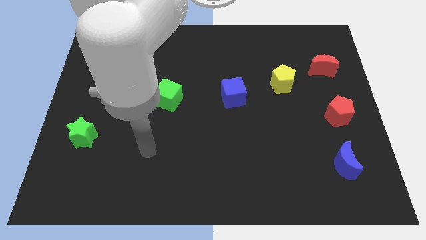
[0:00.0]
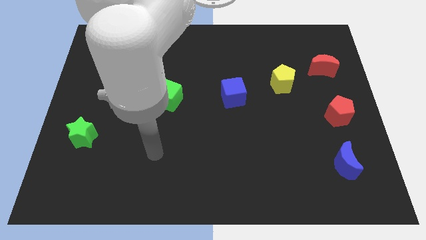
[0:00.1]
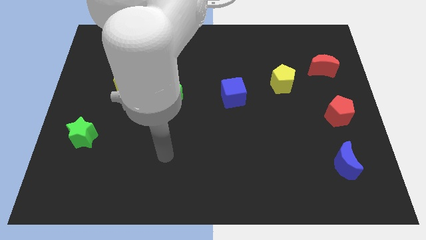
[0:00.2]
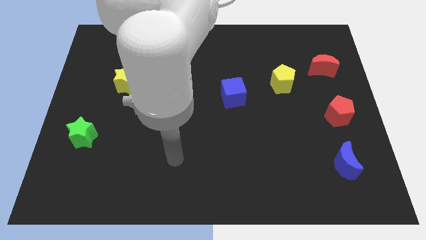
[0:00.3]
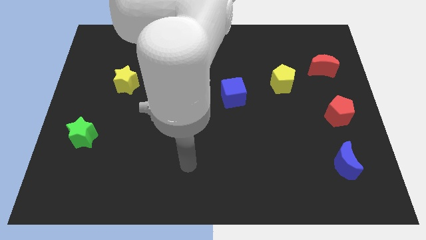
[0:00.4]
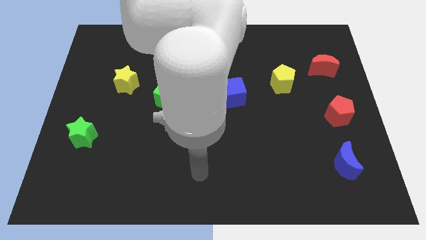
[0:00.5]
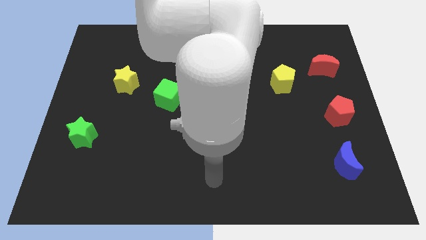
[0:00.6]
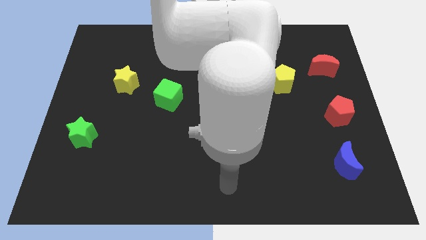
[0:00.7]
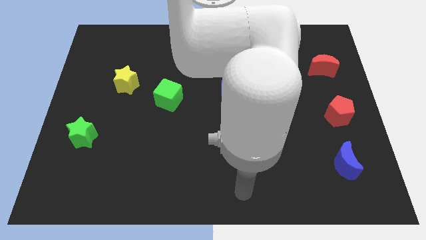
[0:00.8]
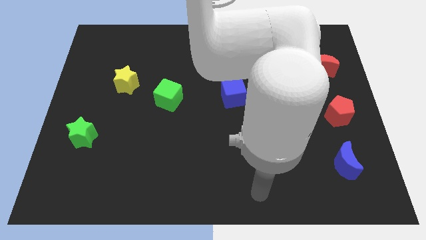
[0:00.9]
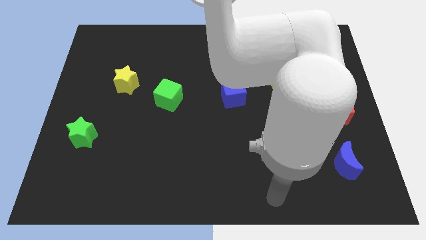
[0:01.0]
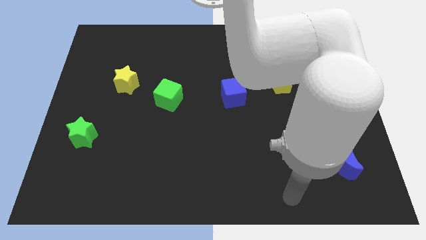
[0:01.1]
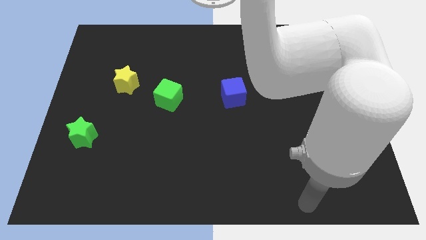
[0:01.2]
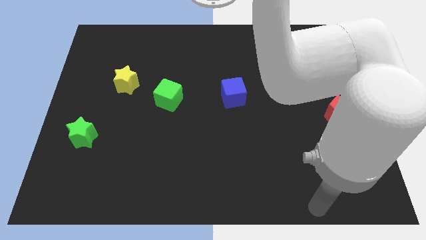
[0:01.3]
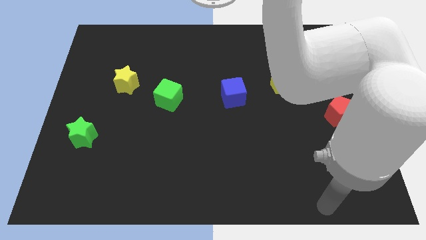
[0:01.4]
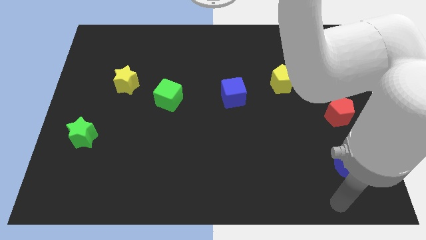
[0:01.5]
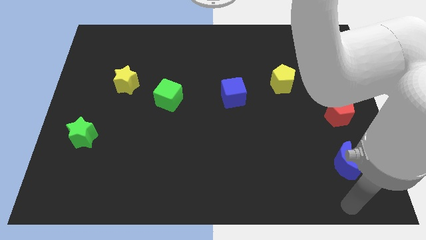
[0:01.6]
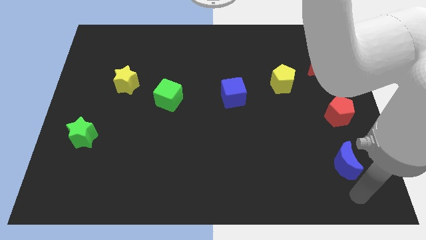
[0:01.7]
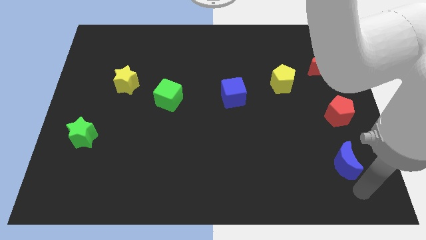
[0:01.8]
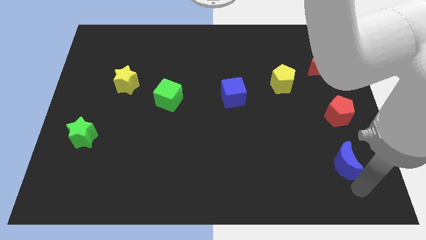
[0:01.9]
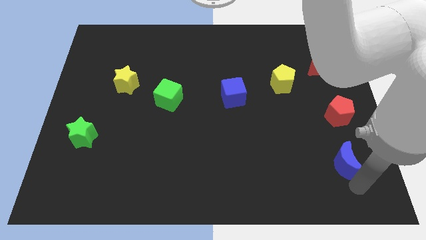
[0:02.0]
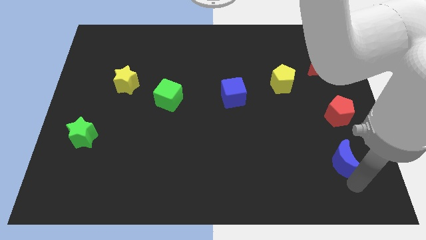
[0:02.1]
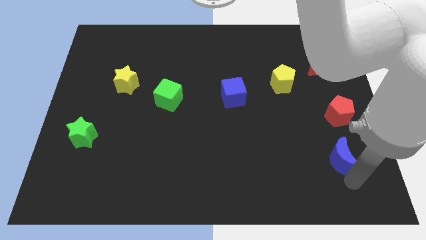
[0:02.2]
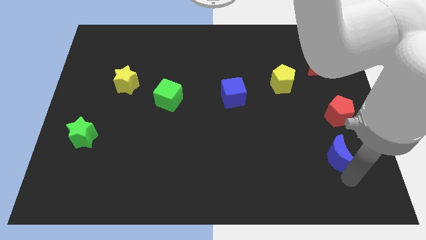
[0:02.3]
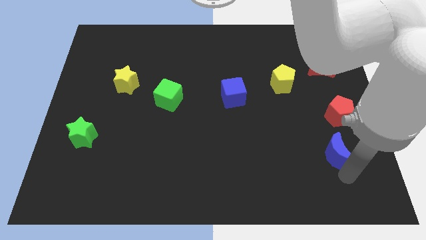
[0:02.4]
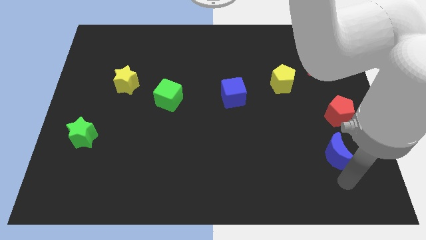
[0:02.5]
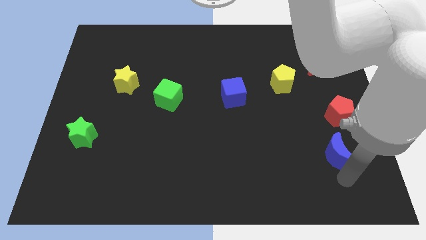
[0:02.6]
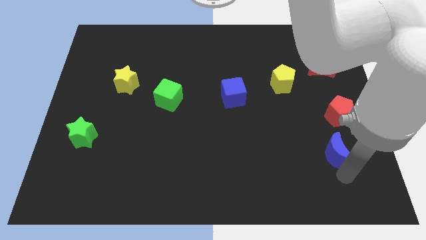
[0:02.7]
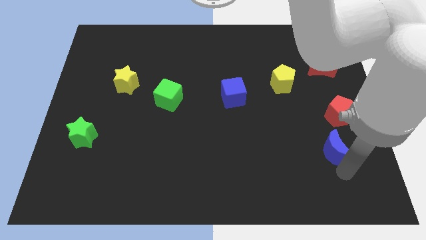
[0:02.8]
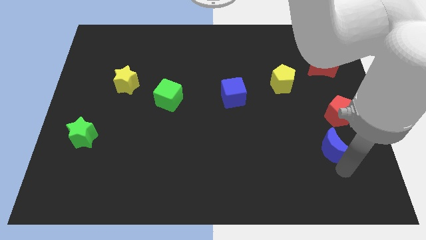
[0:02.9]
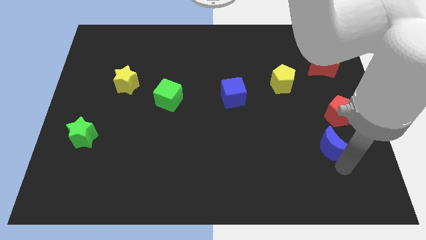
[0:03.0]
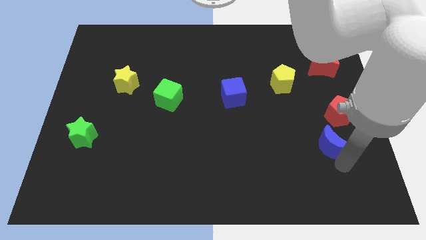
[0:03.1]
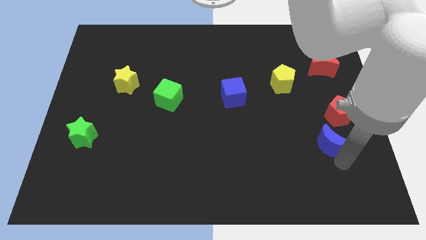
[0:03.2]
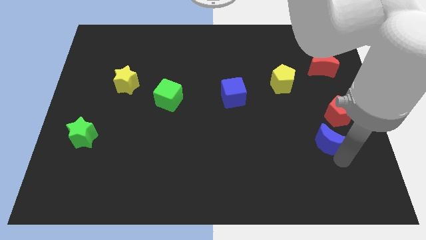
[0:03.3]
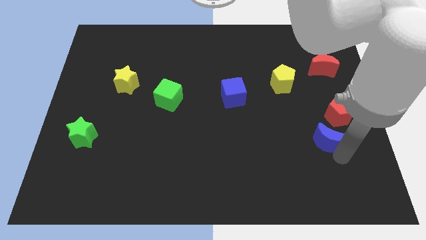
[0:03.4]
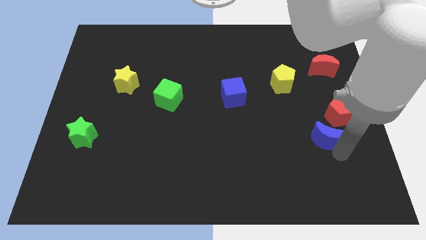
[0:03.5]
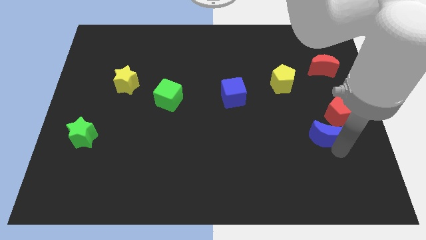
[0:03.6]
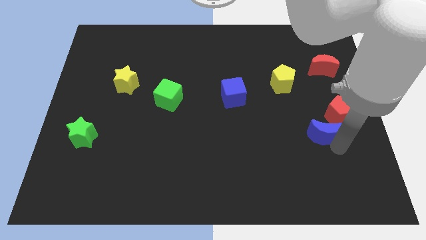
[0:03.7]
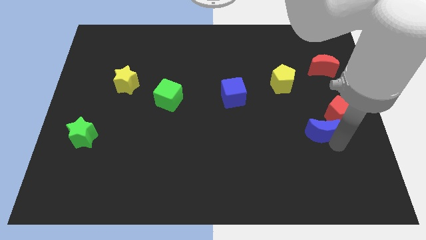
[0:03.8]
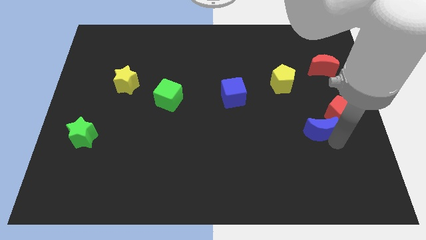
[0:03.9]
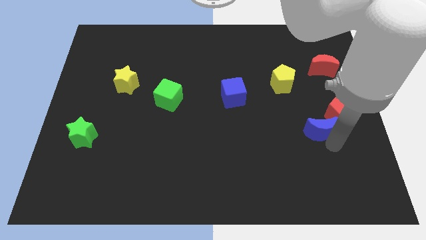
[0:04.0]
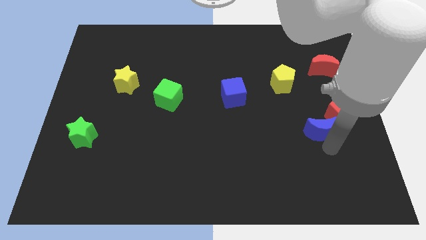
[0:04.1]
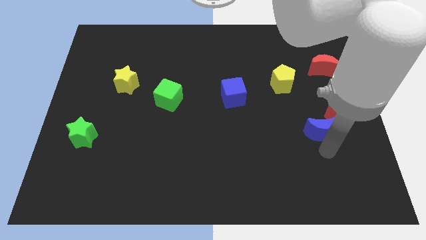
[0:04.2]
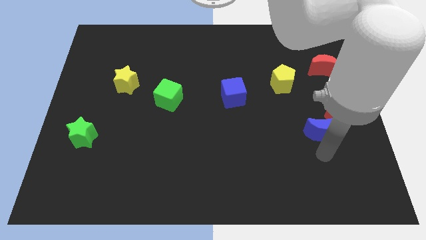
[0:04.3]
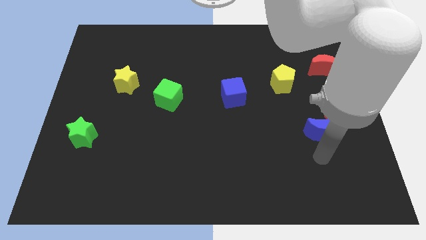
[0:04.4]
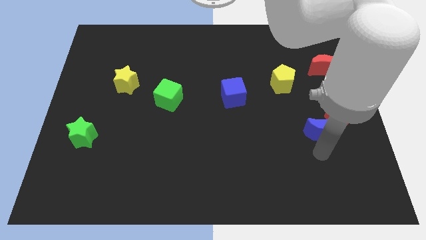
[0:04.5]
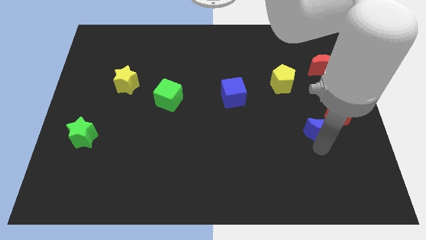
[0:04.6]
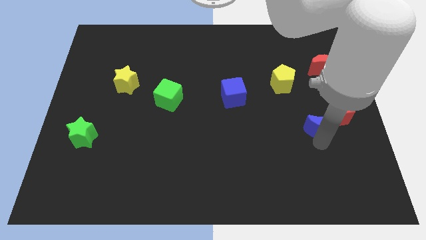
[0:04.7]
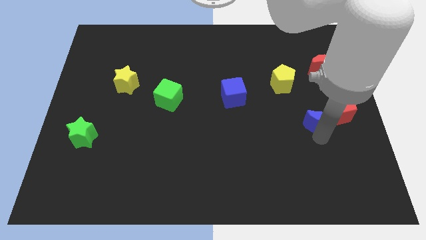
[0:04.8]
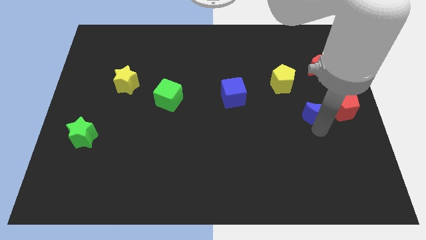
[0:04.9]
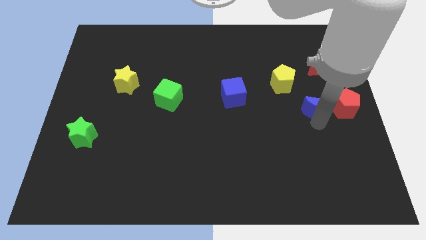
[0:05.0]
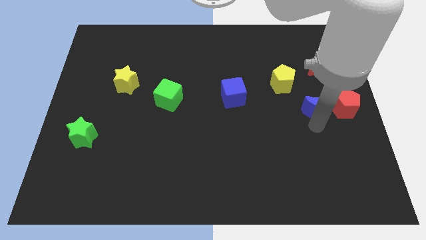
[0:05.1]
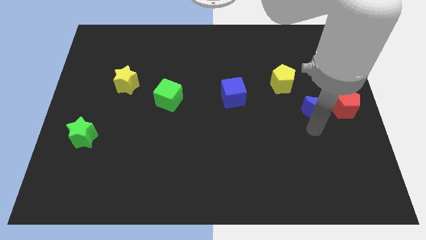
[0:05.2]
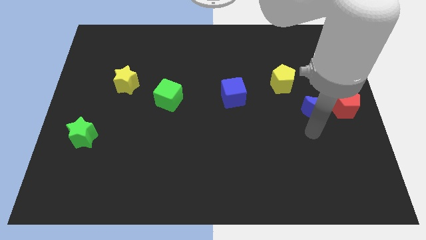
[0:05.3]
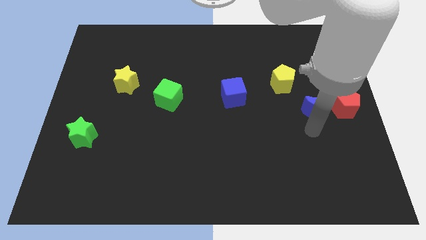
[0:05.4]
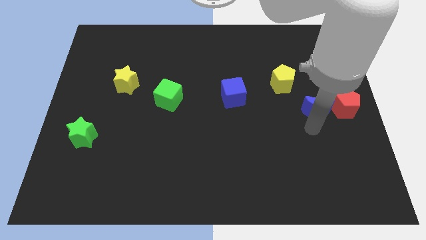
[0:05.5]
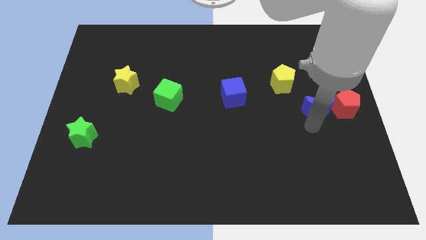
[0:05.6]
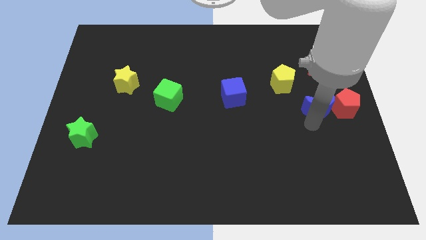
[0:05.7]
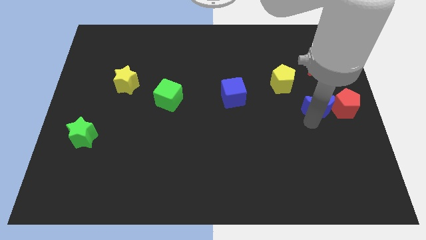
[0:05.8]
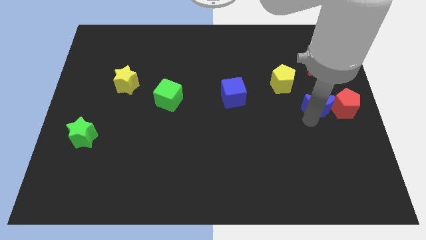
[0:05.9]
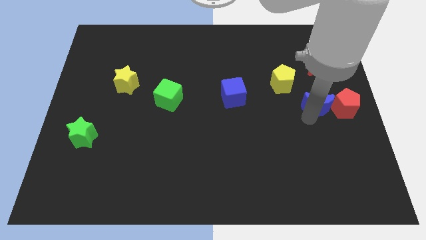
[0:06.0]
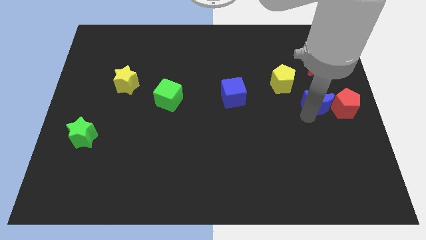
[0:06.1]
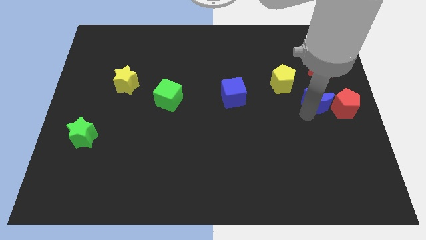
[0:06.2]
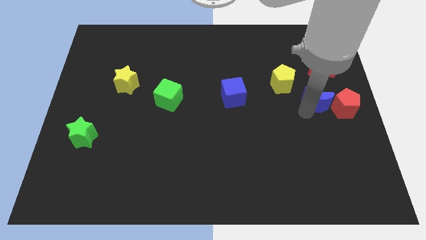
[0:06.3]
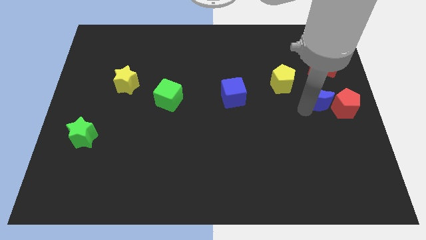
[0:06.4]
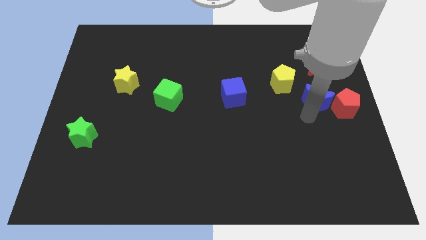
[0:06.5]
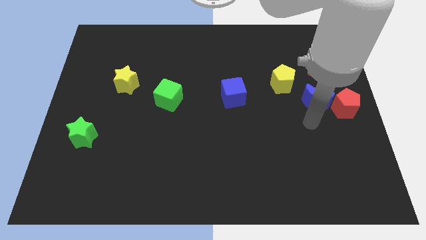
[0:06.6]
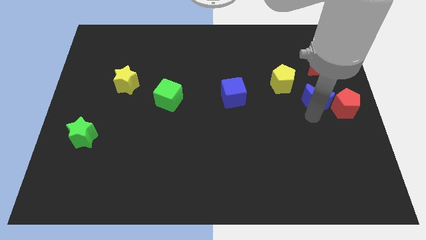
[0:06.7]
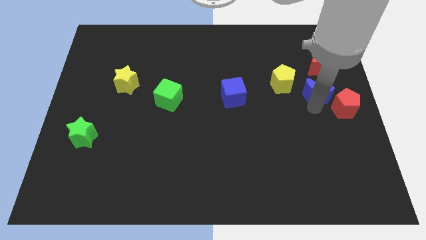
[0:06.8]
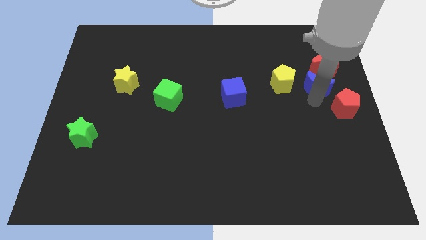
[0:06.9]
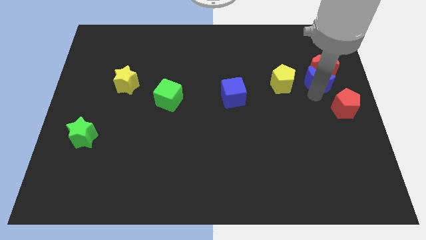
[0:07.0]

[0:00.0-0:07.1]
slide the blue moon towards the red moon
